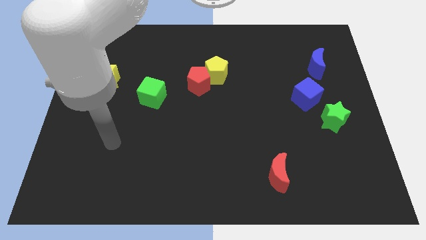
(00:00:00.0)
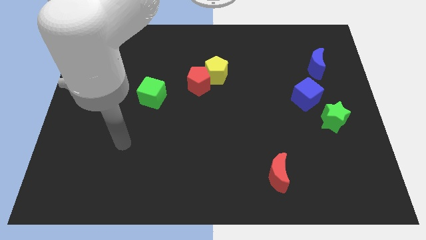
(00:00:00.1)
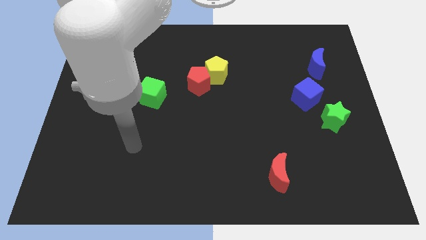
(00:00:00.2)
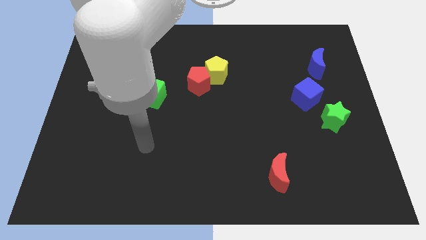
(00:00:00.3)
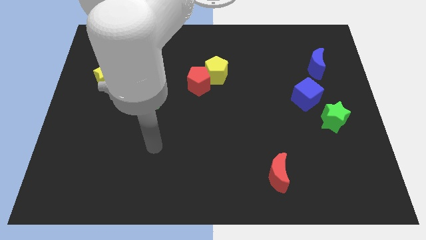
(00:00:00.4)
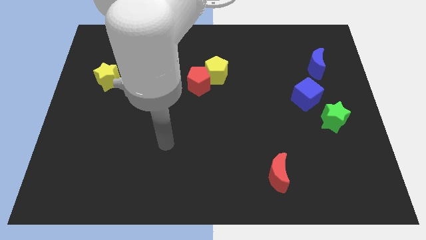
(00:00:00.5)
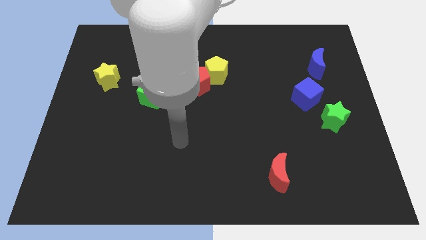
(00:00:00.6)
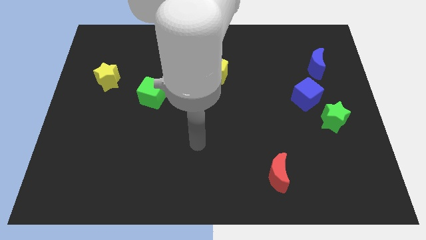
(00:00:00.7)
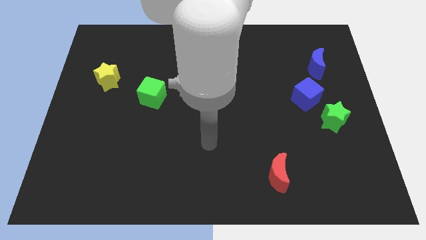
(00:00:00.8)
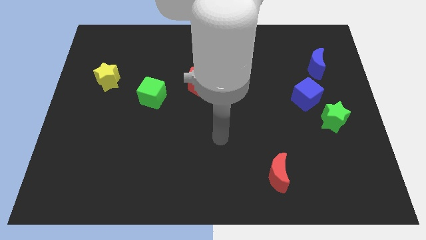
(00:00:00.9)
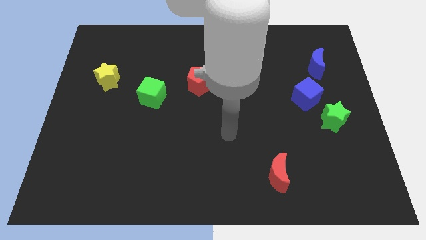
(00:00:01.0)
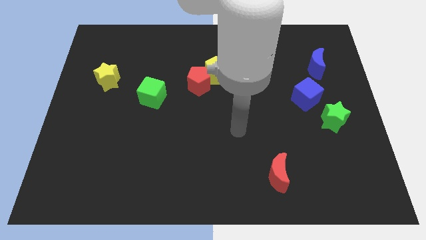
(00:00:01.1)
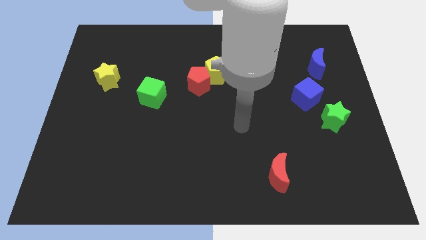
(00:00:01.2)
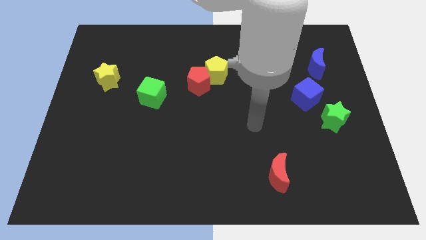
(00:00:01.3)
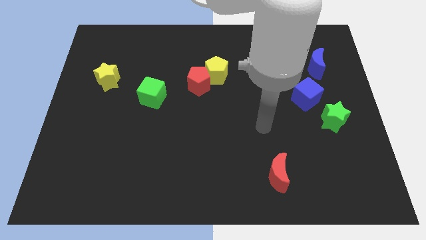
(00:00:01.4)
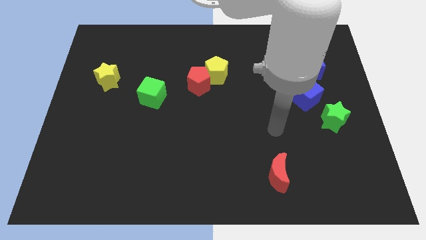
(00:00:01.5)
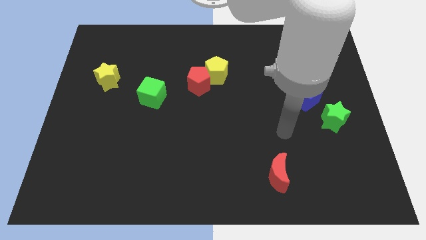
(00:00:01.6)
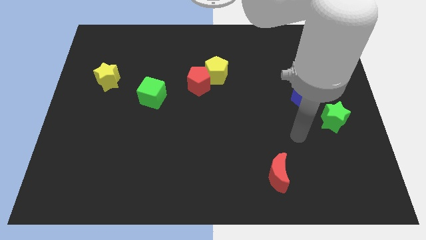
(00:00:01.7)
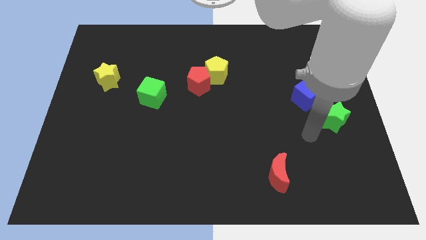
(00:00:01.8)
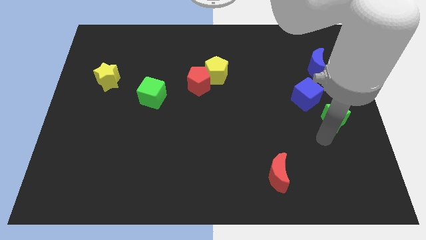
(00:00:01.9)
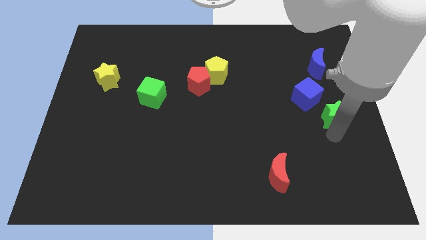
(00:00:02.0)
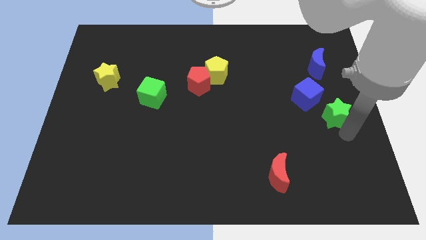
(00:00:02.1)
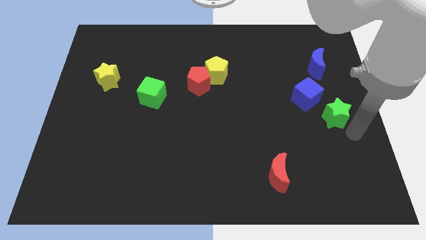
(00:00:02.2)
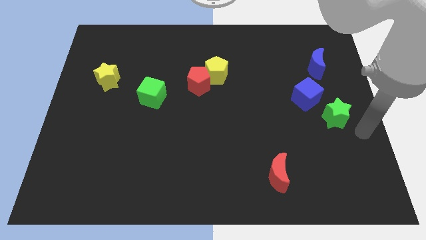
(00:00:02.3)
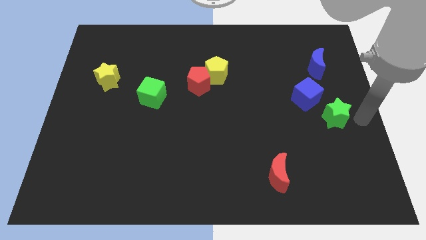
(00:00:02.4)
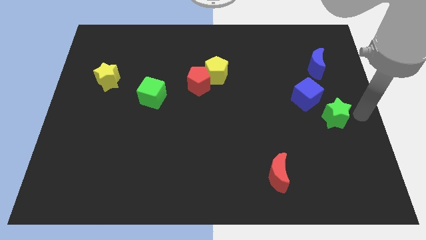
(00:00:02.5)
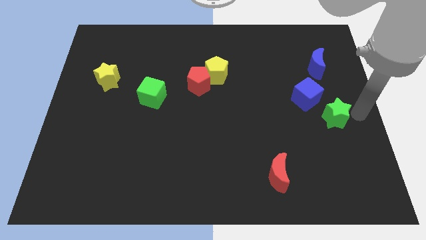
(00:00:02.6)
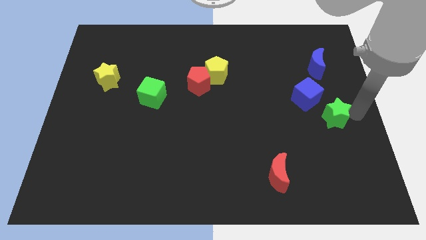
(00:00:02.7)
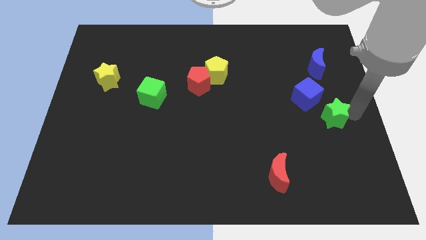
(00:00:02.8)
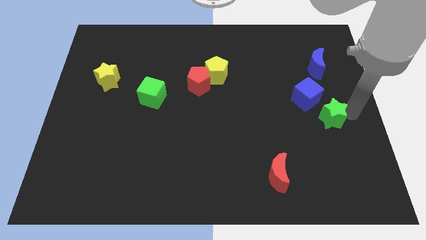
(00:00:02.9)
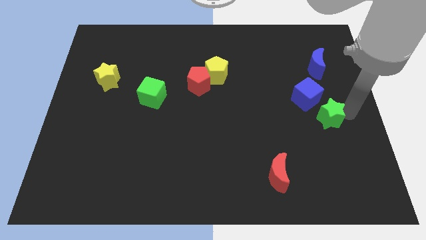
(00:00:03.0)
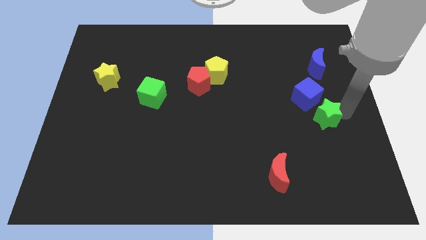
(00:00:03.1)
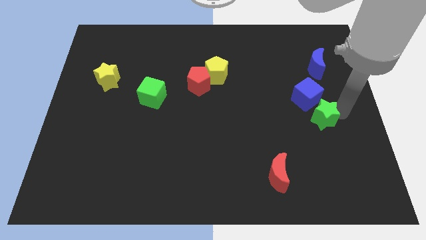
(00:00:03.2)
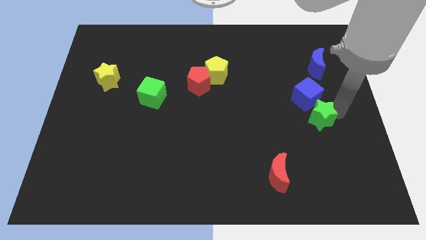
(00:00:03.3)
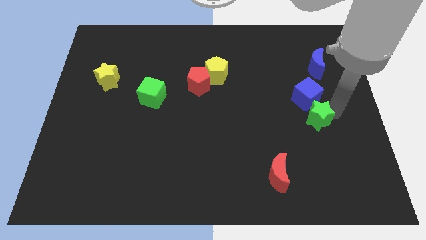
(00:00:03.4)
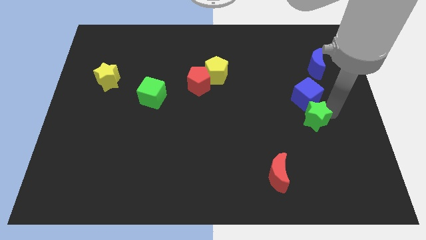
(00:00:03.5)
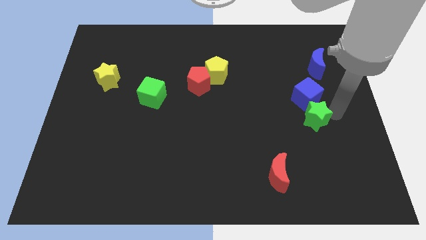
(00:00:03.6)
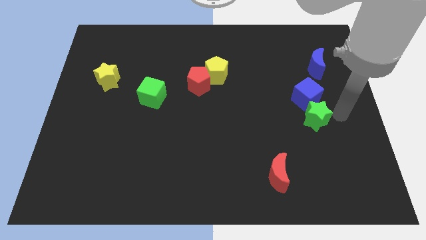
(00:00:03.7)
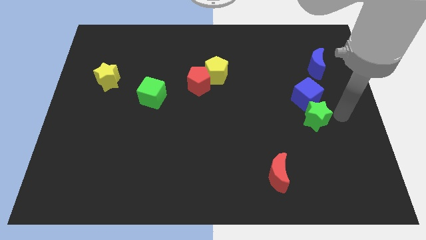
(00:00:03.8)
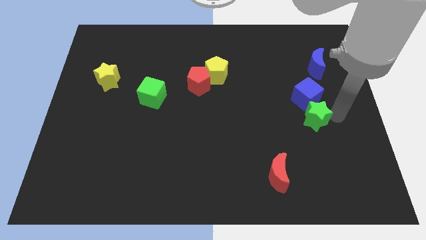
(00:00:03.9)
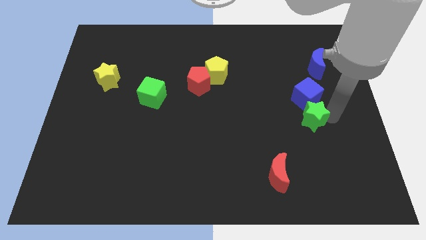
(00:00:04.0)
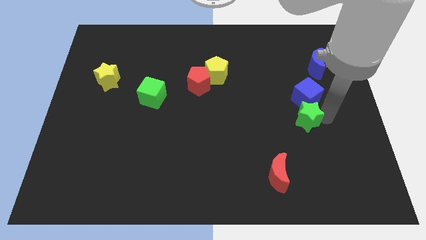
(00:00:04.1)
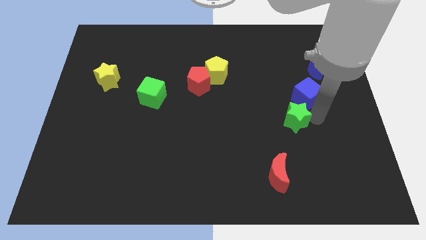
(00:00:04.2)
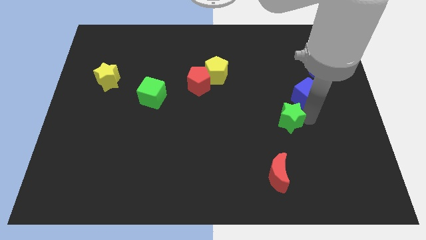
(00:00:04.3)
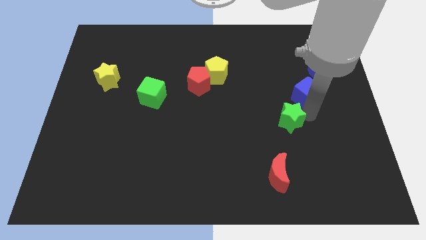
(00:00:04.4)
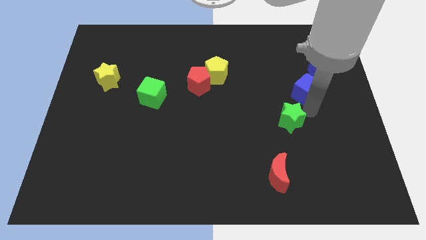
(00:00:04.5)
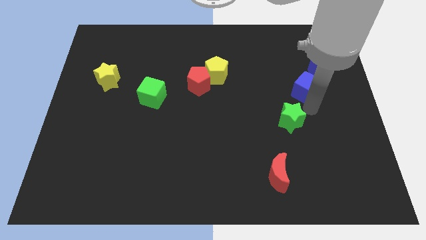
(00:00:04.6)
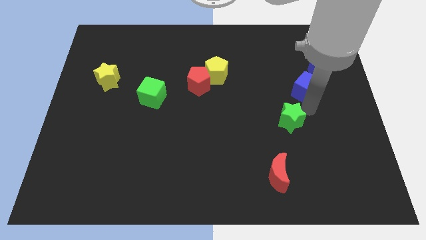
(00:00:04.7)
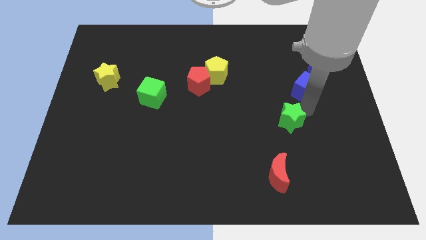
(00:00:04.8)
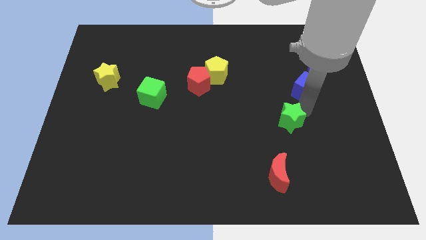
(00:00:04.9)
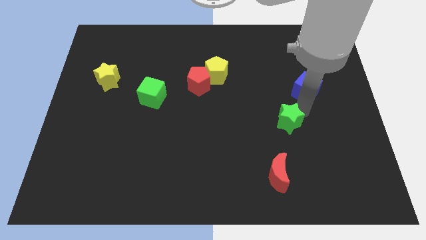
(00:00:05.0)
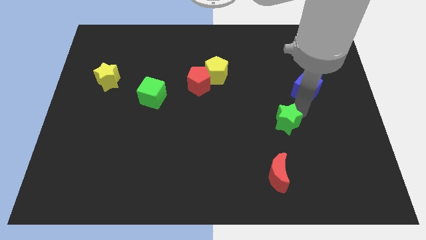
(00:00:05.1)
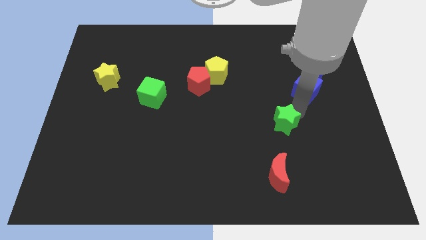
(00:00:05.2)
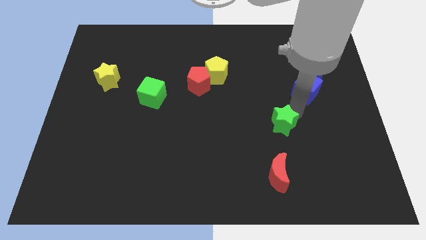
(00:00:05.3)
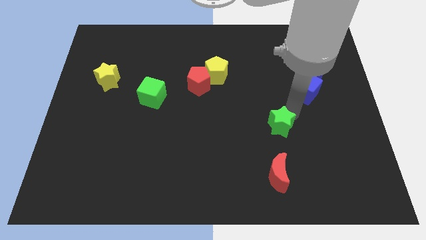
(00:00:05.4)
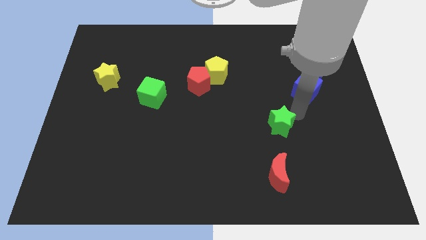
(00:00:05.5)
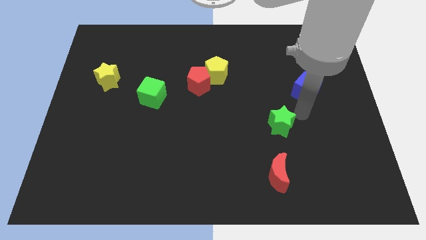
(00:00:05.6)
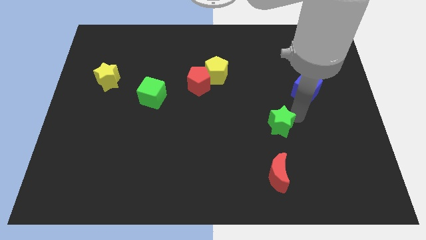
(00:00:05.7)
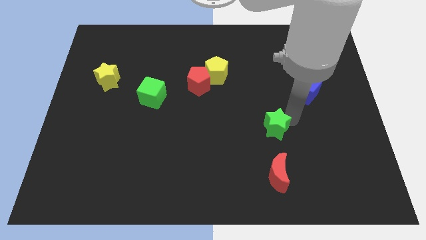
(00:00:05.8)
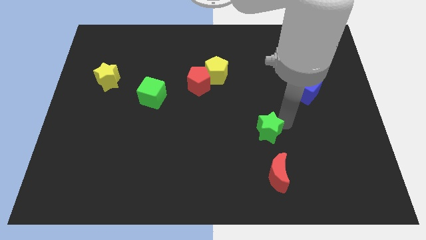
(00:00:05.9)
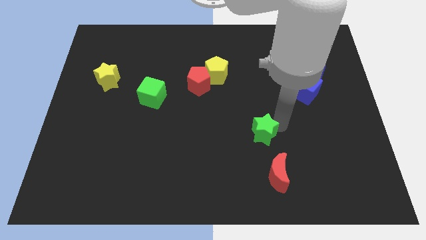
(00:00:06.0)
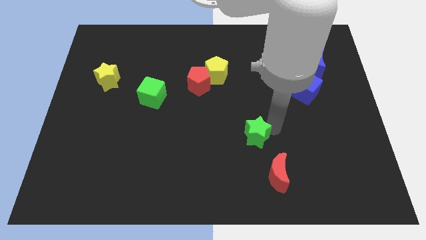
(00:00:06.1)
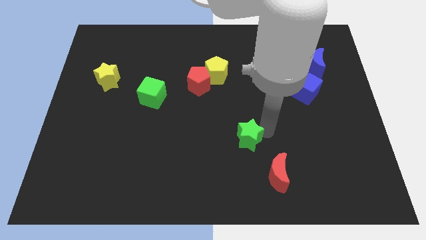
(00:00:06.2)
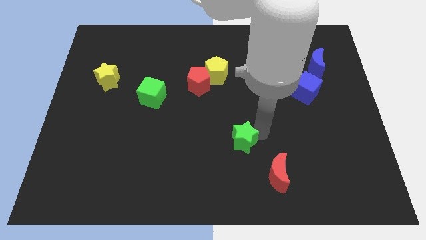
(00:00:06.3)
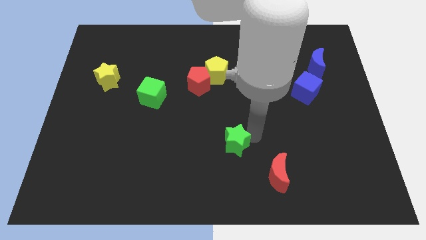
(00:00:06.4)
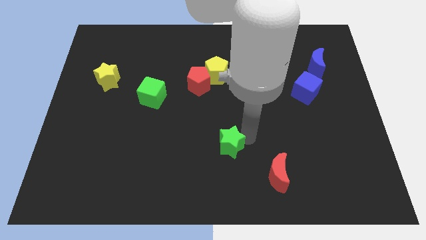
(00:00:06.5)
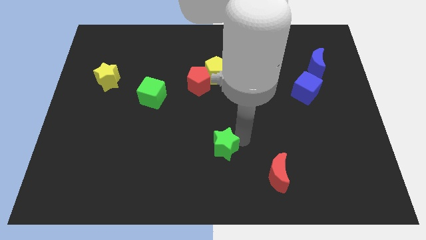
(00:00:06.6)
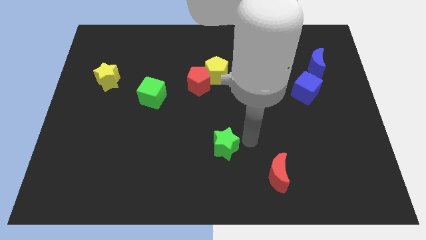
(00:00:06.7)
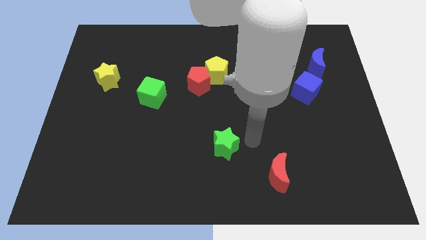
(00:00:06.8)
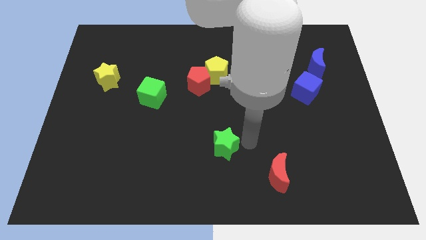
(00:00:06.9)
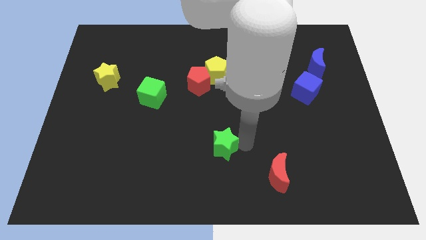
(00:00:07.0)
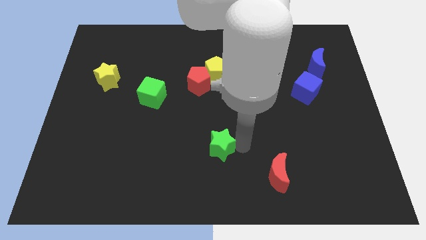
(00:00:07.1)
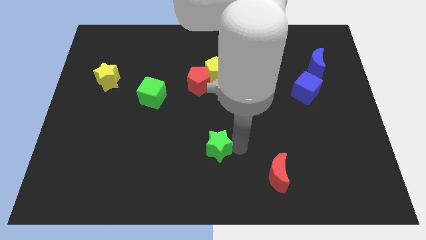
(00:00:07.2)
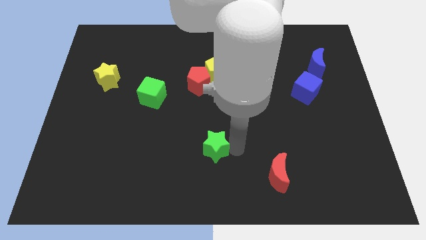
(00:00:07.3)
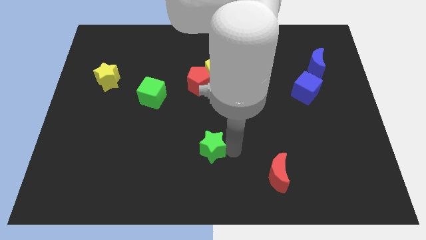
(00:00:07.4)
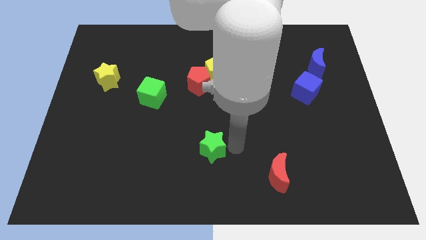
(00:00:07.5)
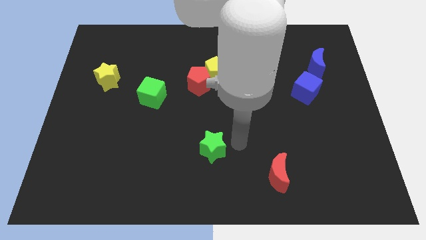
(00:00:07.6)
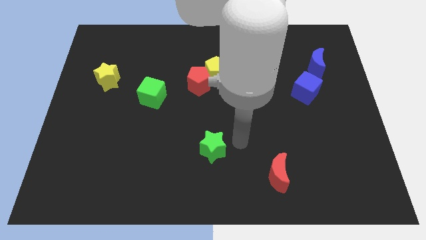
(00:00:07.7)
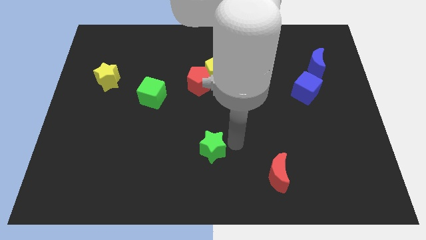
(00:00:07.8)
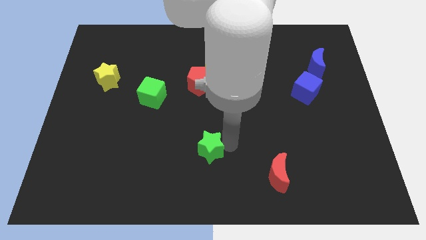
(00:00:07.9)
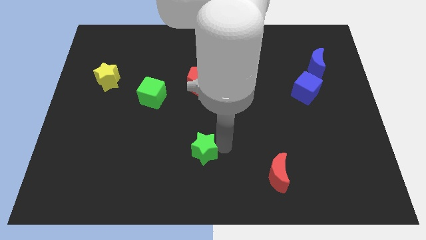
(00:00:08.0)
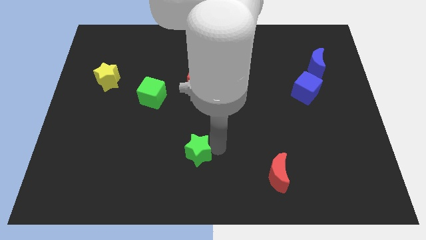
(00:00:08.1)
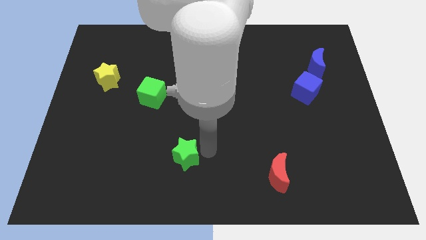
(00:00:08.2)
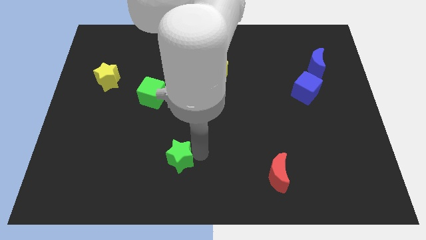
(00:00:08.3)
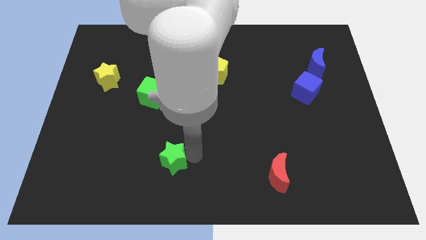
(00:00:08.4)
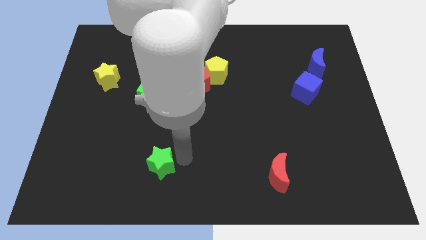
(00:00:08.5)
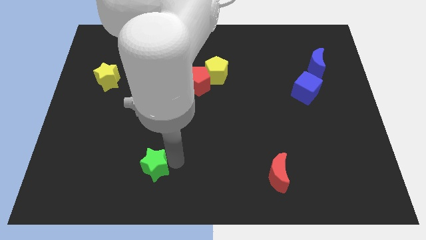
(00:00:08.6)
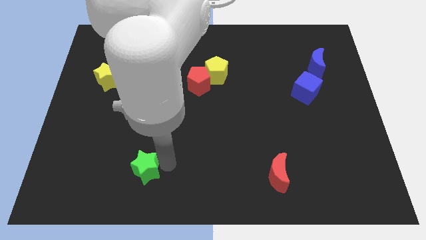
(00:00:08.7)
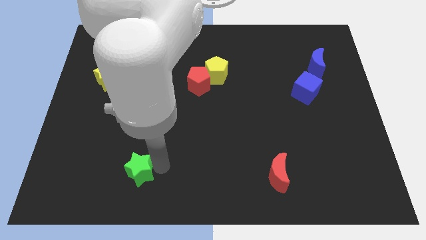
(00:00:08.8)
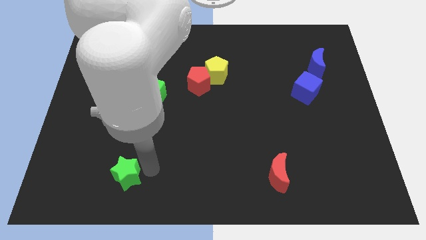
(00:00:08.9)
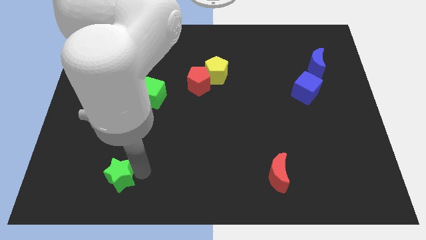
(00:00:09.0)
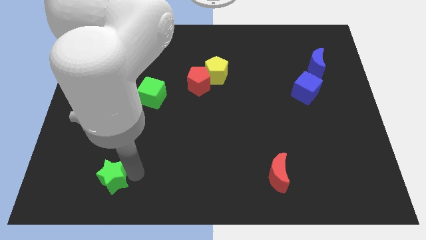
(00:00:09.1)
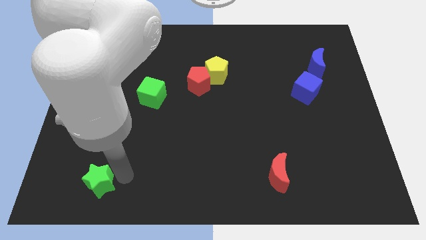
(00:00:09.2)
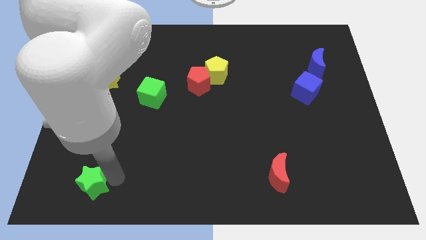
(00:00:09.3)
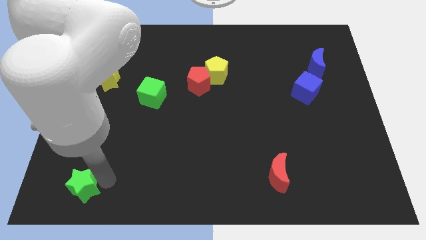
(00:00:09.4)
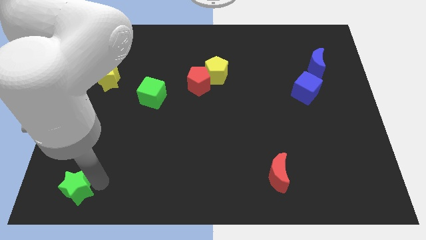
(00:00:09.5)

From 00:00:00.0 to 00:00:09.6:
push the green star to the bottom left corner
